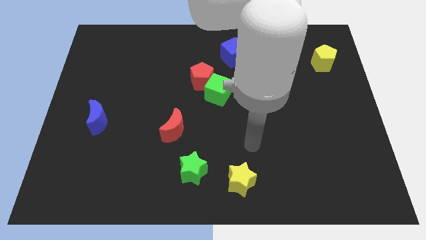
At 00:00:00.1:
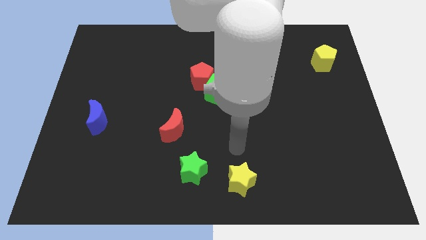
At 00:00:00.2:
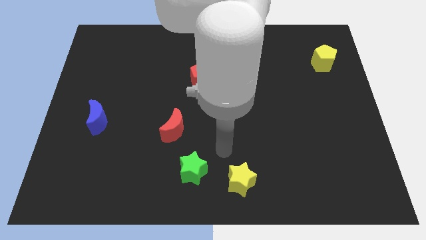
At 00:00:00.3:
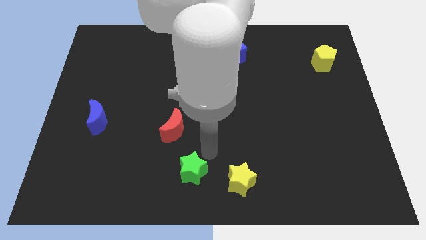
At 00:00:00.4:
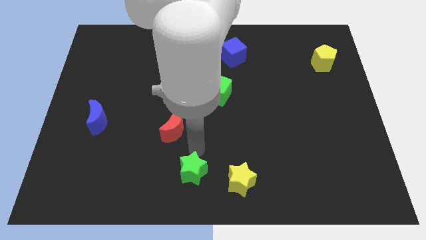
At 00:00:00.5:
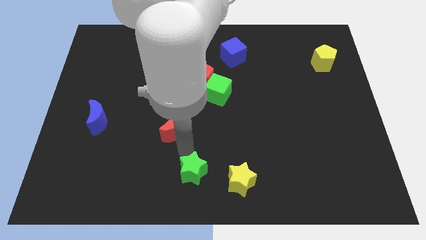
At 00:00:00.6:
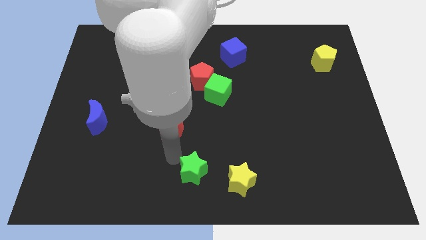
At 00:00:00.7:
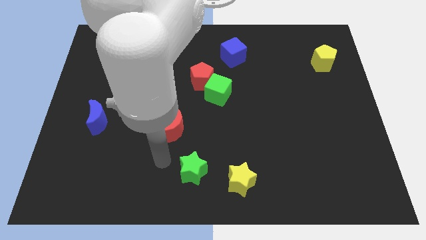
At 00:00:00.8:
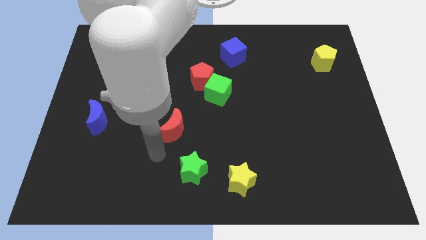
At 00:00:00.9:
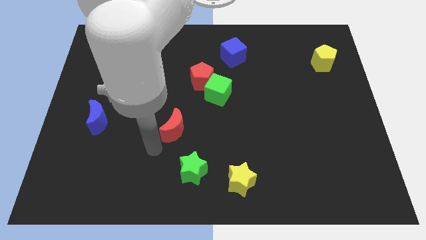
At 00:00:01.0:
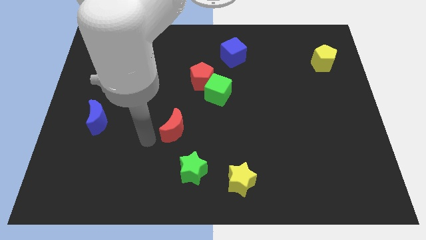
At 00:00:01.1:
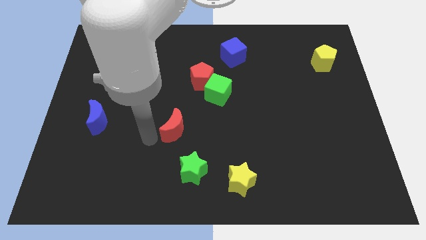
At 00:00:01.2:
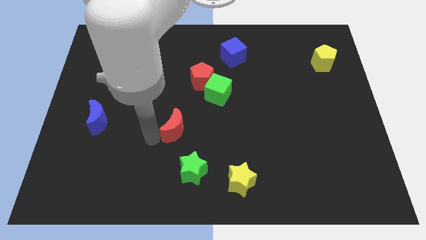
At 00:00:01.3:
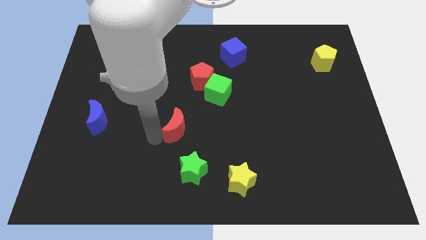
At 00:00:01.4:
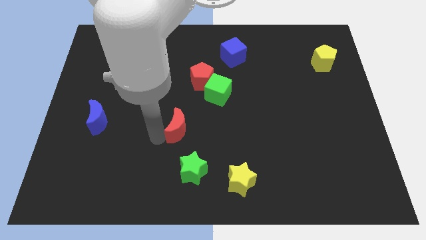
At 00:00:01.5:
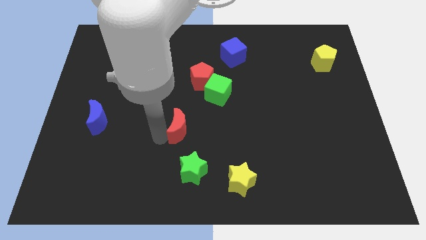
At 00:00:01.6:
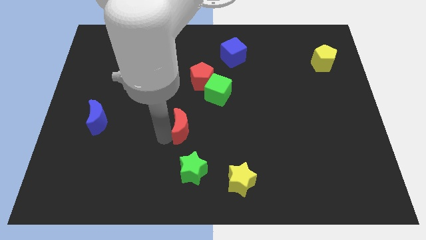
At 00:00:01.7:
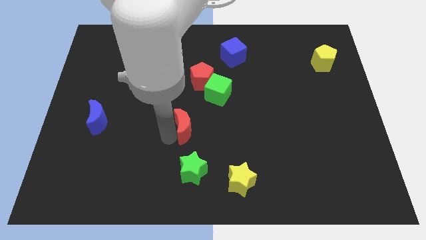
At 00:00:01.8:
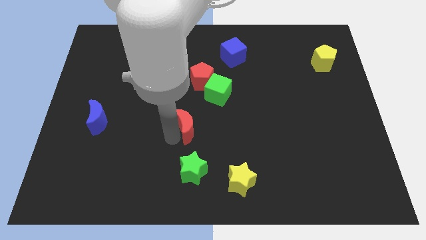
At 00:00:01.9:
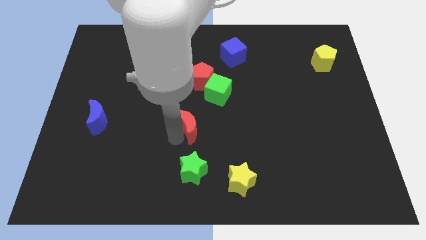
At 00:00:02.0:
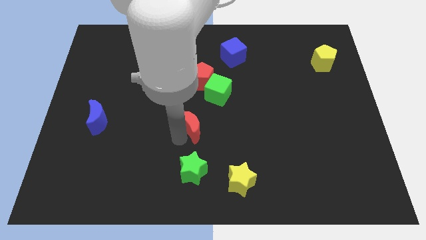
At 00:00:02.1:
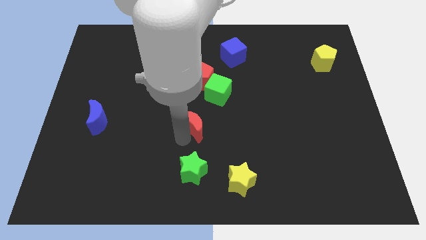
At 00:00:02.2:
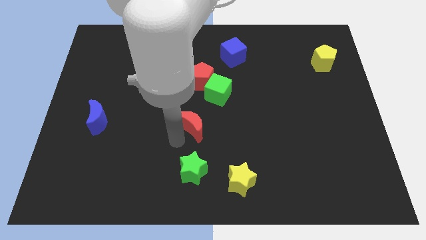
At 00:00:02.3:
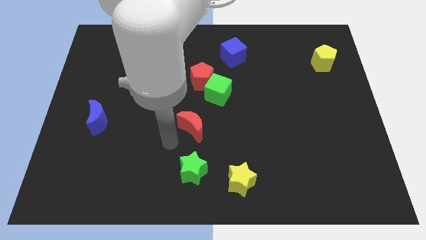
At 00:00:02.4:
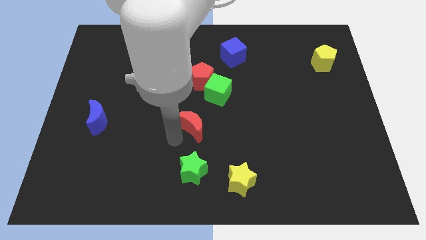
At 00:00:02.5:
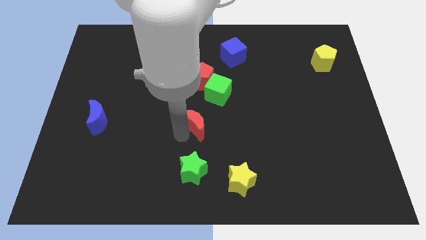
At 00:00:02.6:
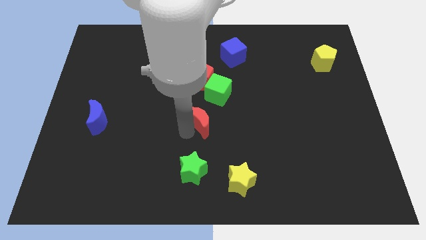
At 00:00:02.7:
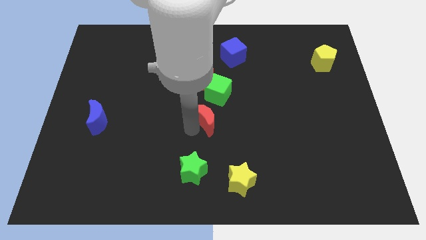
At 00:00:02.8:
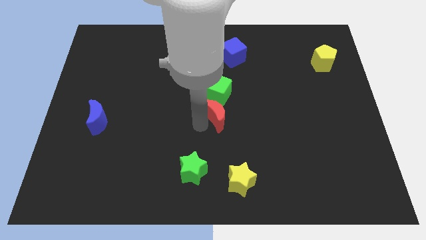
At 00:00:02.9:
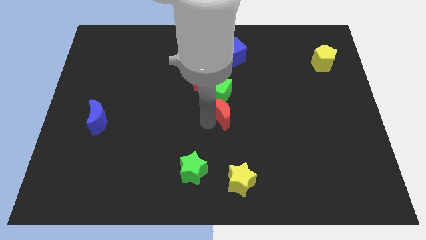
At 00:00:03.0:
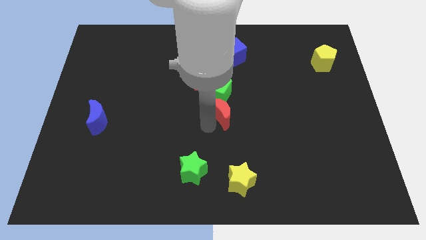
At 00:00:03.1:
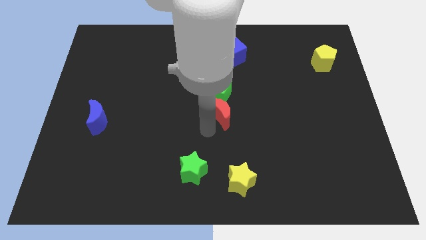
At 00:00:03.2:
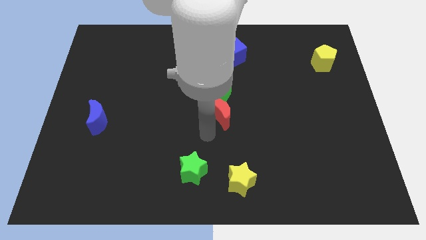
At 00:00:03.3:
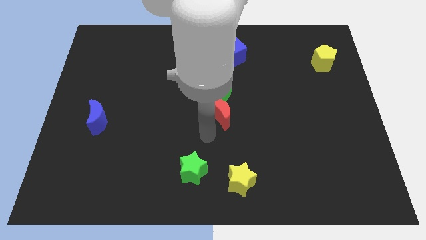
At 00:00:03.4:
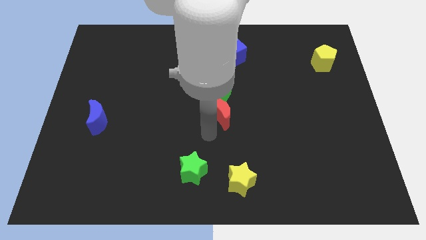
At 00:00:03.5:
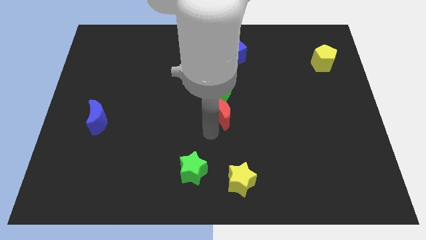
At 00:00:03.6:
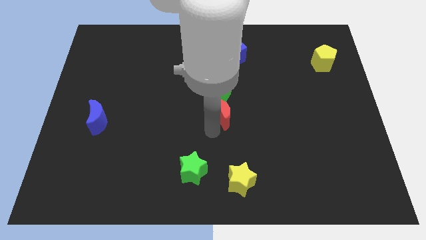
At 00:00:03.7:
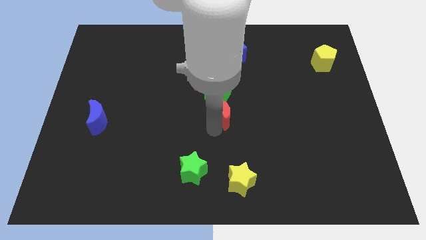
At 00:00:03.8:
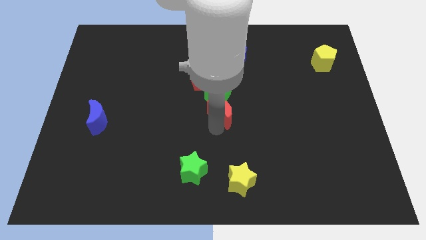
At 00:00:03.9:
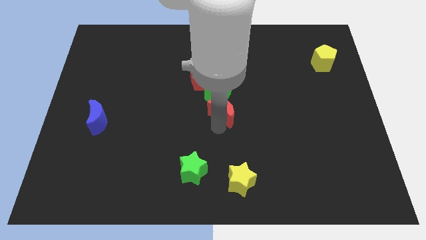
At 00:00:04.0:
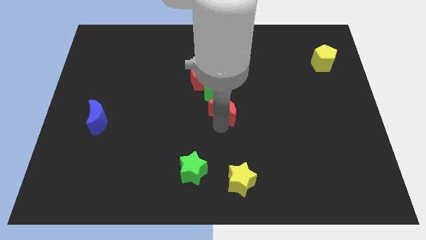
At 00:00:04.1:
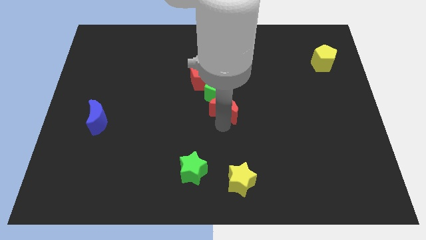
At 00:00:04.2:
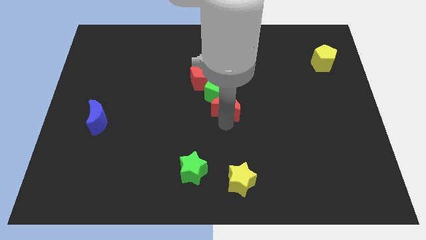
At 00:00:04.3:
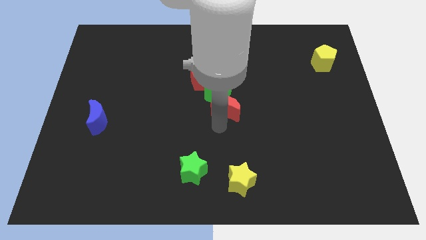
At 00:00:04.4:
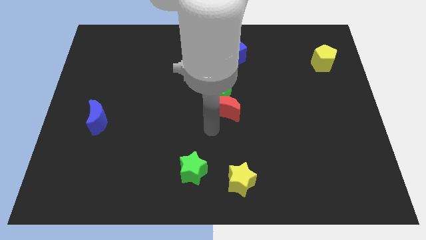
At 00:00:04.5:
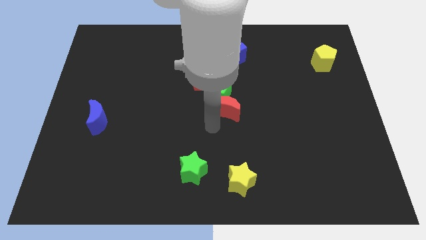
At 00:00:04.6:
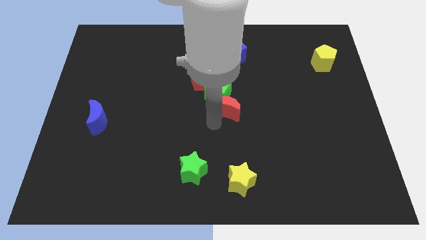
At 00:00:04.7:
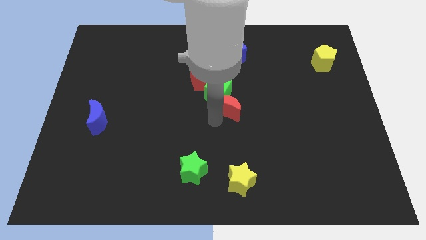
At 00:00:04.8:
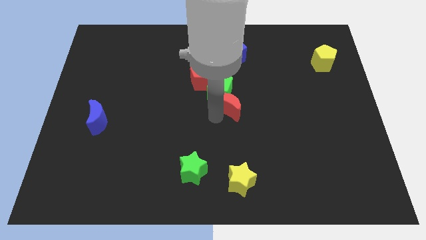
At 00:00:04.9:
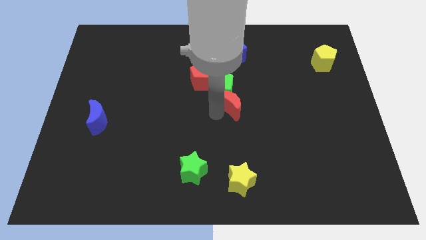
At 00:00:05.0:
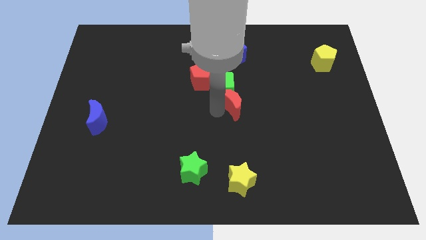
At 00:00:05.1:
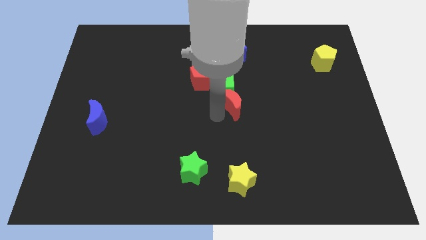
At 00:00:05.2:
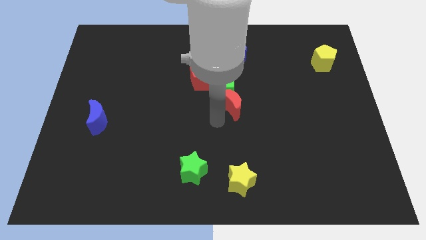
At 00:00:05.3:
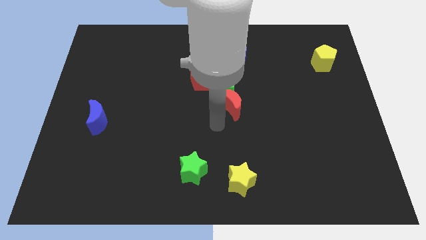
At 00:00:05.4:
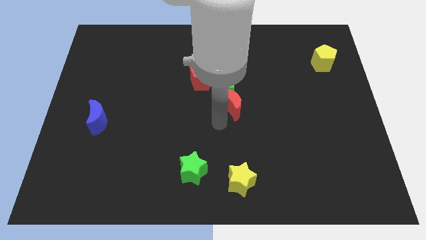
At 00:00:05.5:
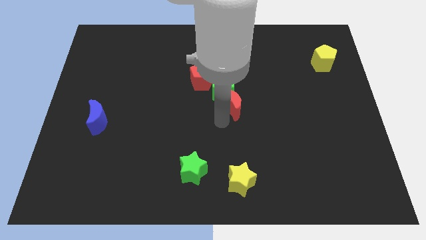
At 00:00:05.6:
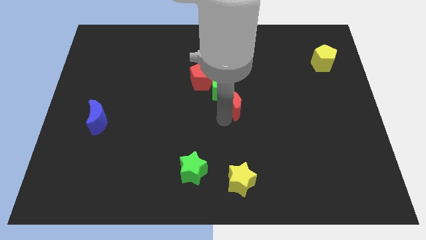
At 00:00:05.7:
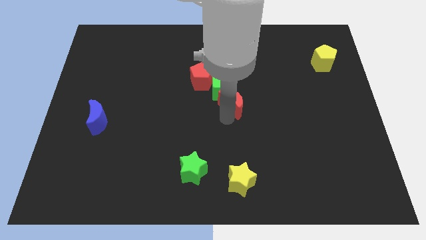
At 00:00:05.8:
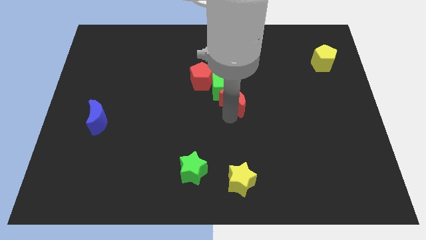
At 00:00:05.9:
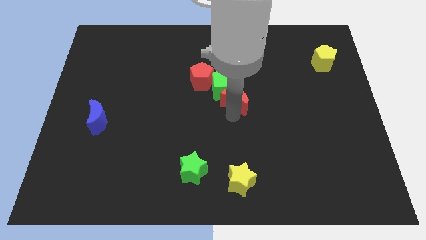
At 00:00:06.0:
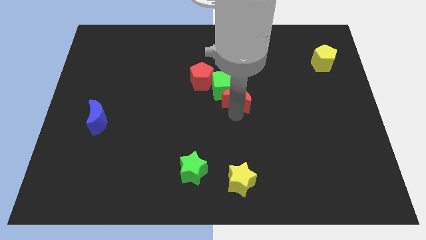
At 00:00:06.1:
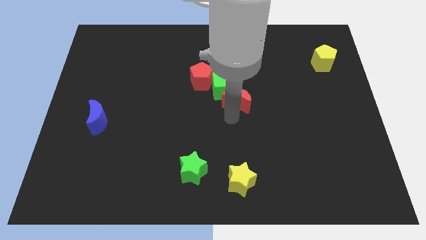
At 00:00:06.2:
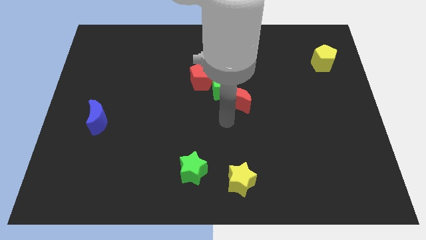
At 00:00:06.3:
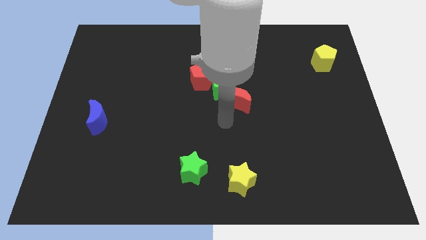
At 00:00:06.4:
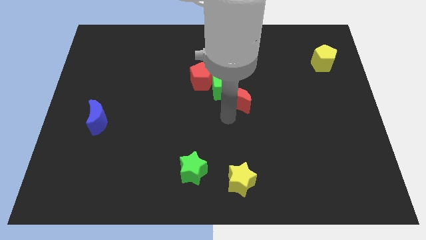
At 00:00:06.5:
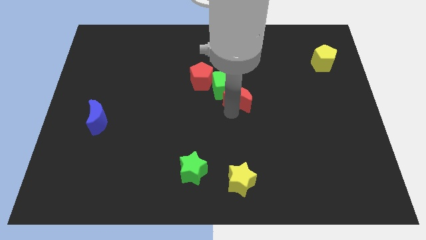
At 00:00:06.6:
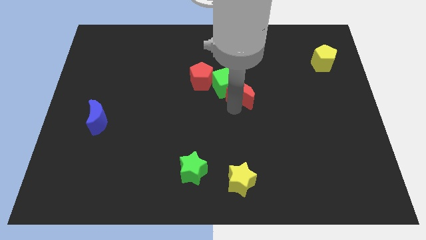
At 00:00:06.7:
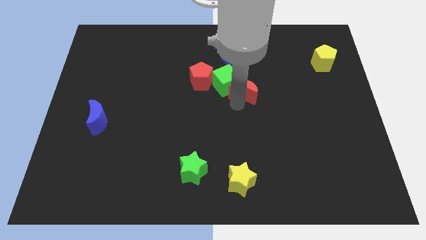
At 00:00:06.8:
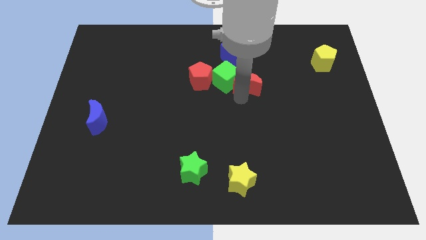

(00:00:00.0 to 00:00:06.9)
move the red moon diagonally upwards and to the right

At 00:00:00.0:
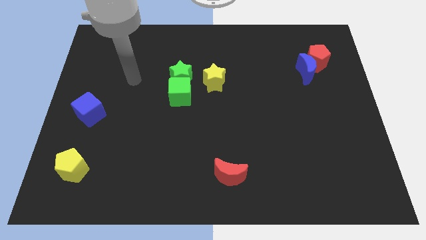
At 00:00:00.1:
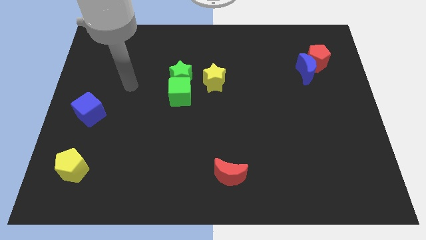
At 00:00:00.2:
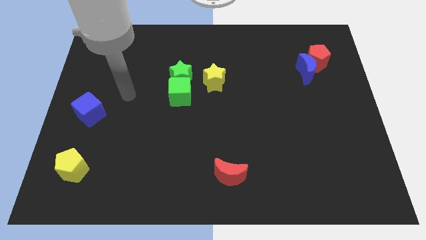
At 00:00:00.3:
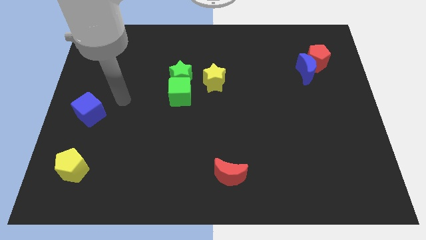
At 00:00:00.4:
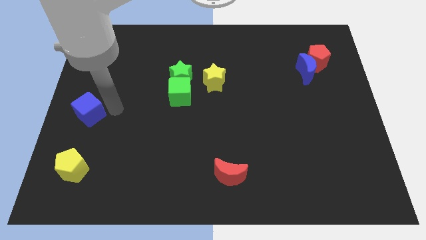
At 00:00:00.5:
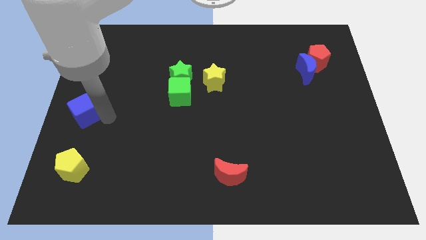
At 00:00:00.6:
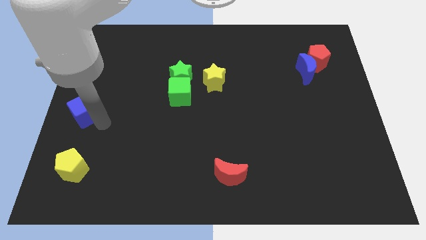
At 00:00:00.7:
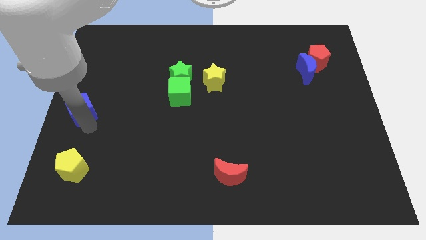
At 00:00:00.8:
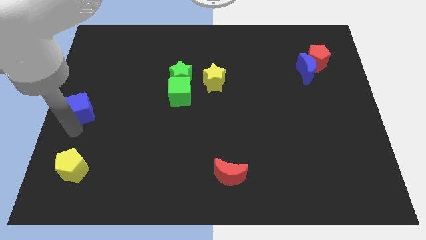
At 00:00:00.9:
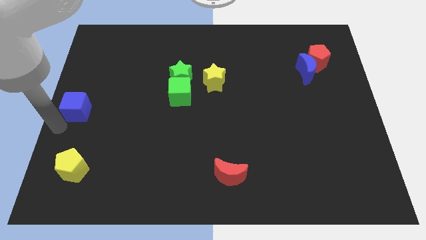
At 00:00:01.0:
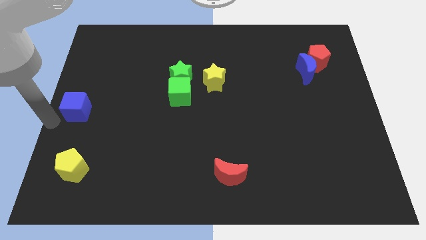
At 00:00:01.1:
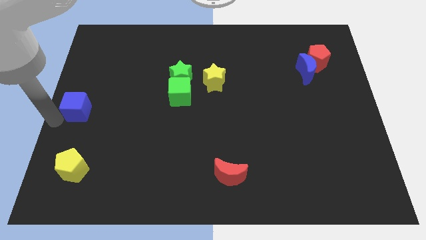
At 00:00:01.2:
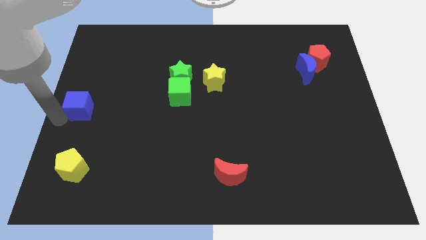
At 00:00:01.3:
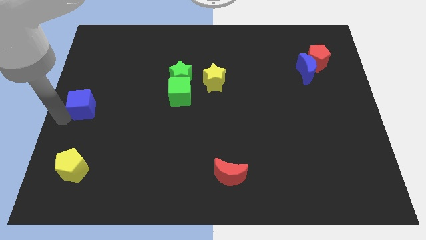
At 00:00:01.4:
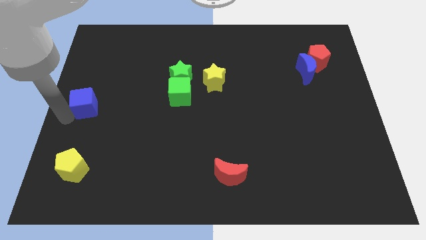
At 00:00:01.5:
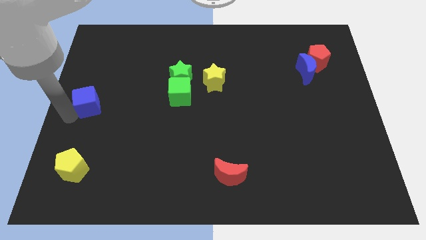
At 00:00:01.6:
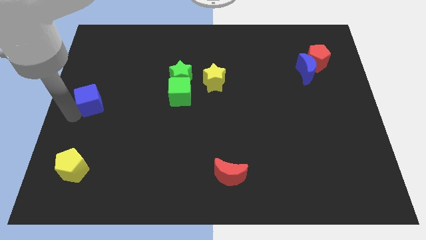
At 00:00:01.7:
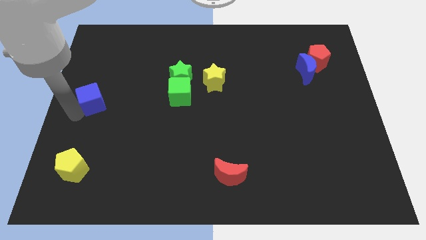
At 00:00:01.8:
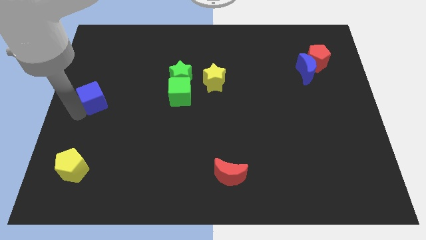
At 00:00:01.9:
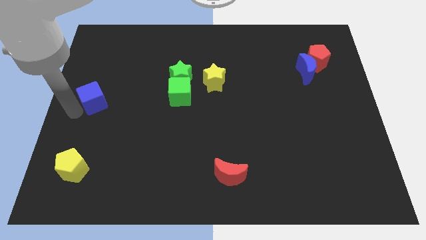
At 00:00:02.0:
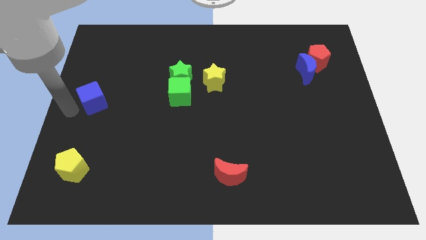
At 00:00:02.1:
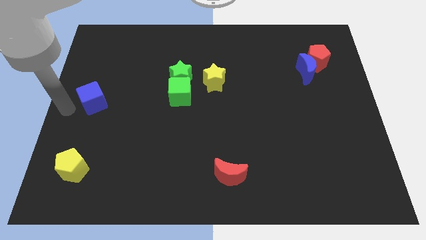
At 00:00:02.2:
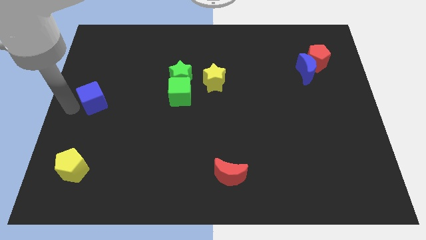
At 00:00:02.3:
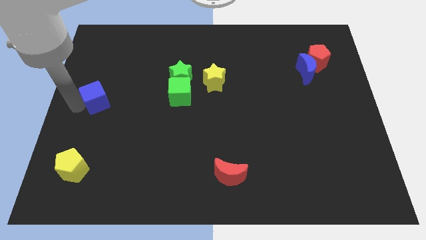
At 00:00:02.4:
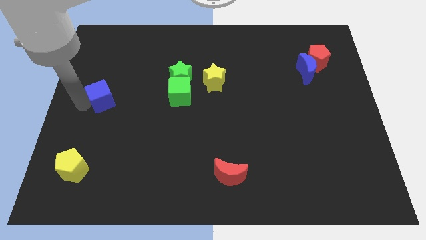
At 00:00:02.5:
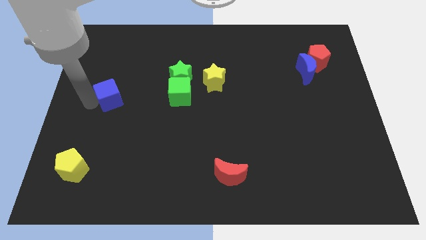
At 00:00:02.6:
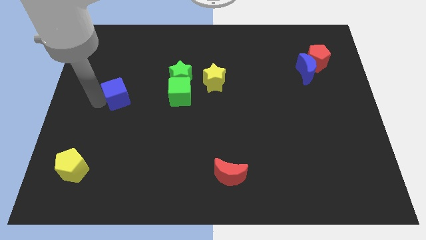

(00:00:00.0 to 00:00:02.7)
slide the blue cube a little bit up and then right
